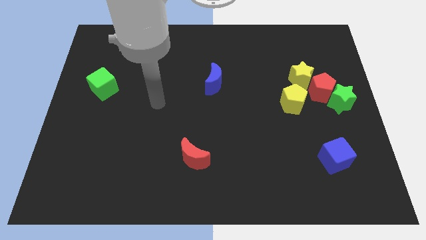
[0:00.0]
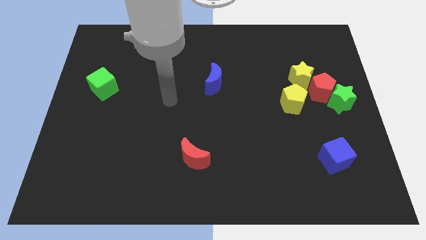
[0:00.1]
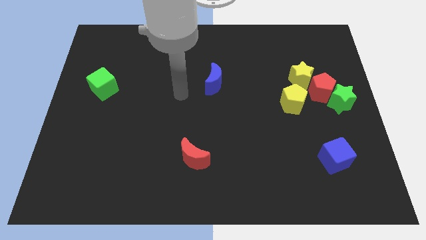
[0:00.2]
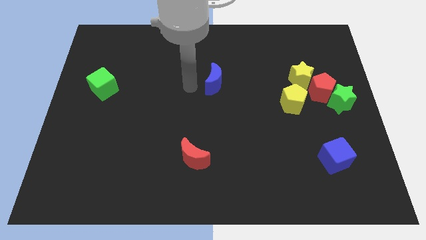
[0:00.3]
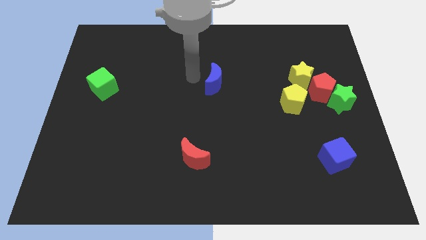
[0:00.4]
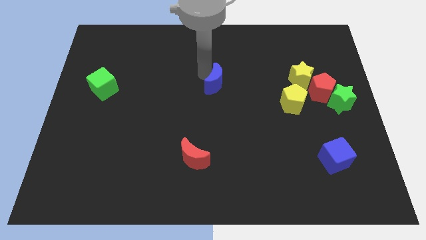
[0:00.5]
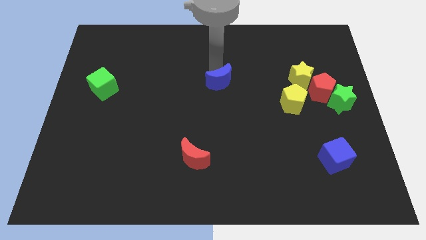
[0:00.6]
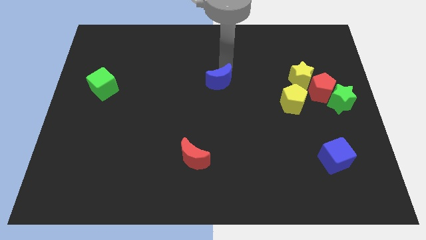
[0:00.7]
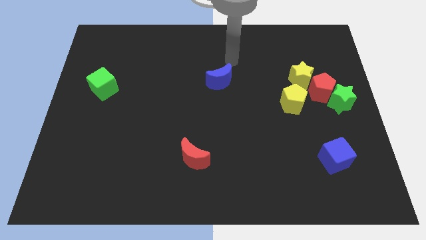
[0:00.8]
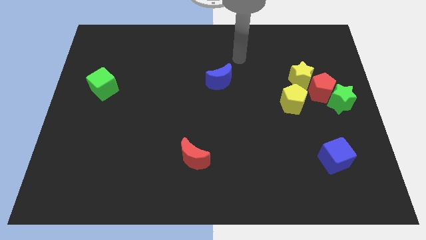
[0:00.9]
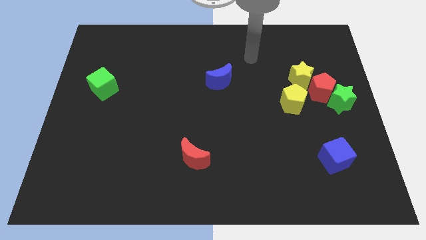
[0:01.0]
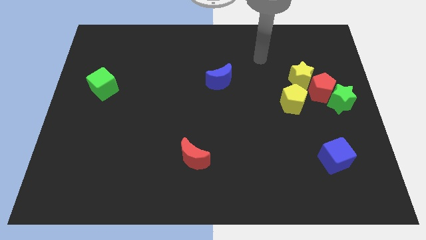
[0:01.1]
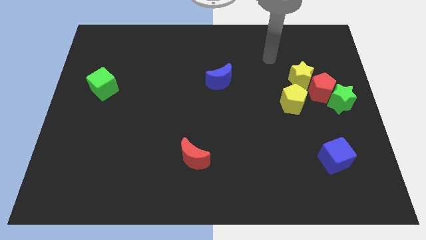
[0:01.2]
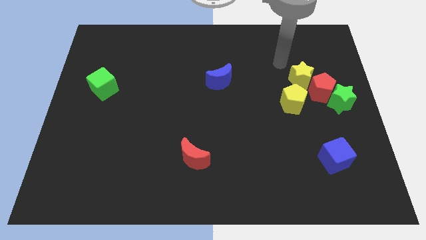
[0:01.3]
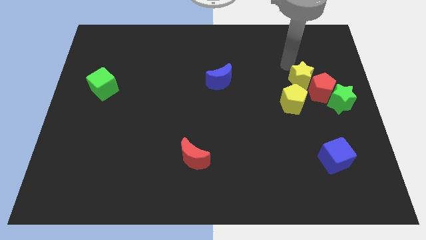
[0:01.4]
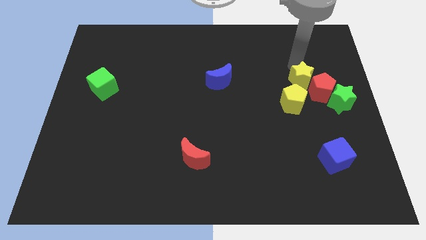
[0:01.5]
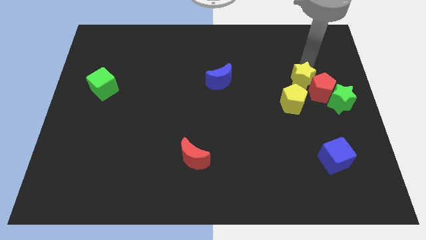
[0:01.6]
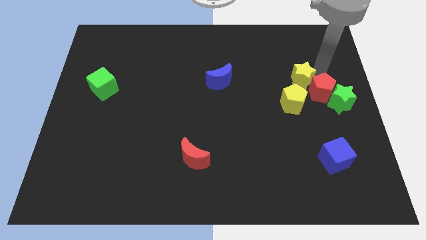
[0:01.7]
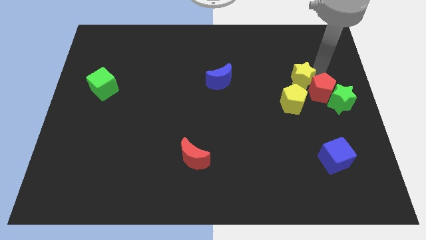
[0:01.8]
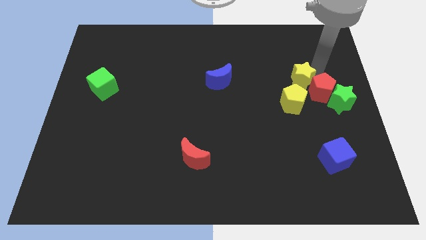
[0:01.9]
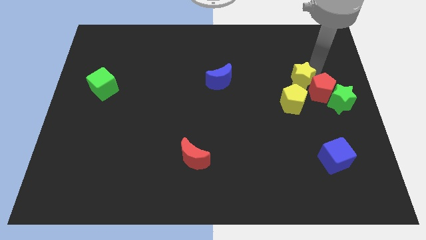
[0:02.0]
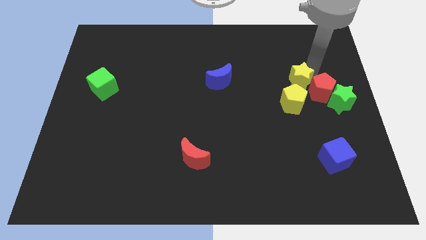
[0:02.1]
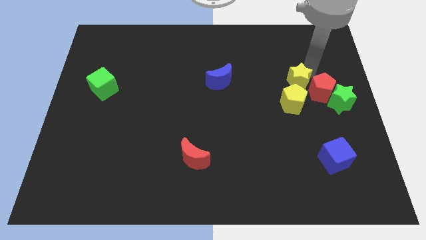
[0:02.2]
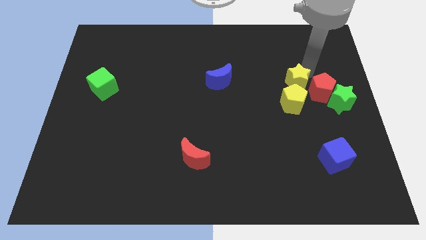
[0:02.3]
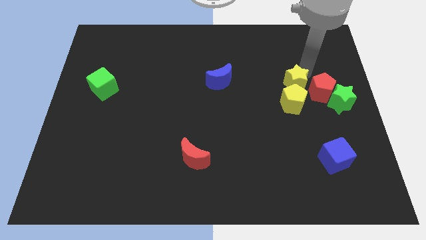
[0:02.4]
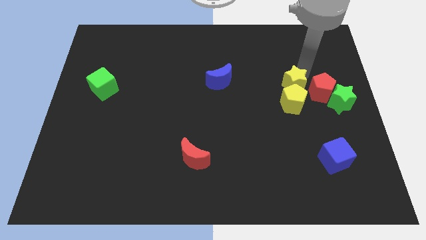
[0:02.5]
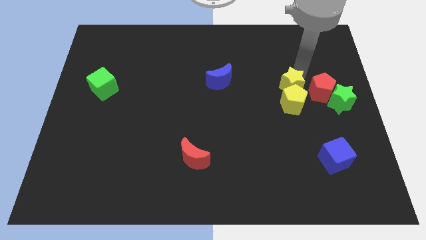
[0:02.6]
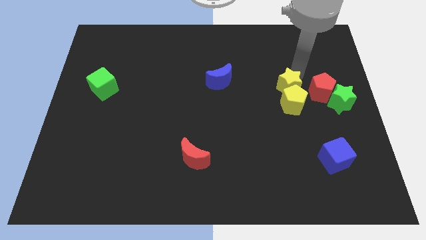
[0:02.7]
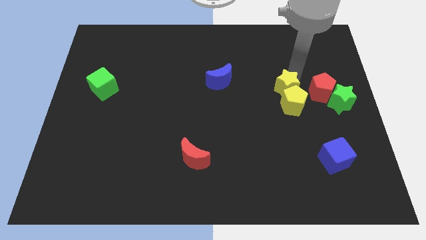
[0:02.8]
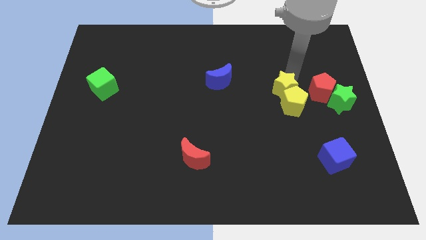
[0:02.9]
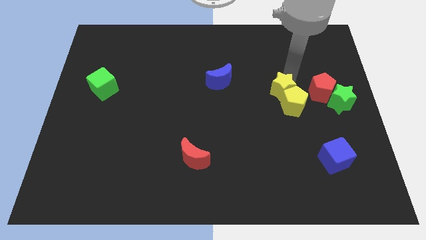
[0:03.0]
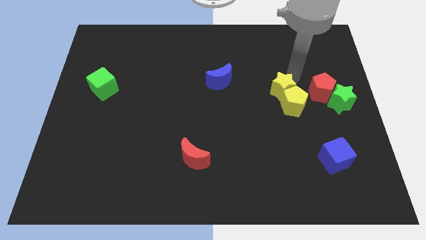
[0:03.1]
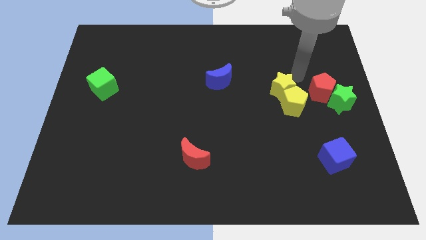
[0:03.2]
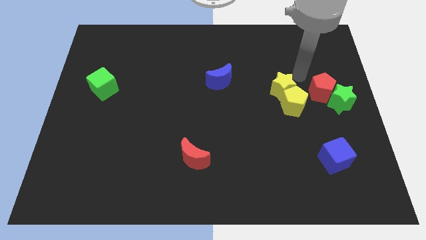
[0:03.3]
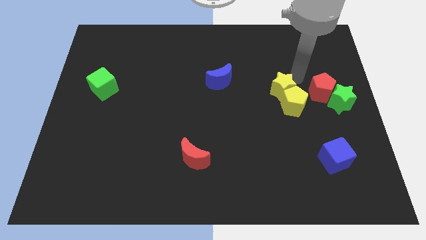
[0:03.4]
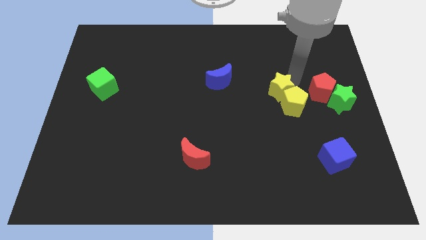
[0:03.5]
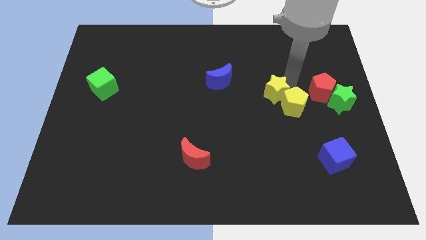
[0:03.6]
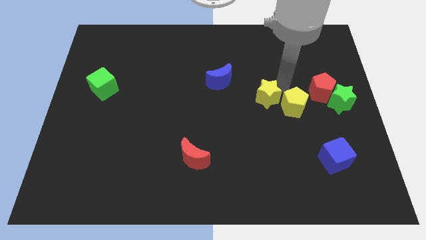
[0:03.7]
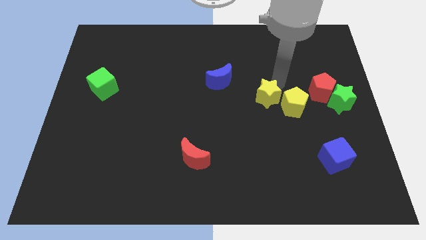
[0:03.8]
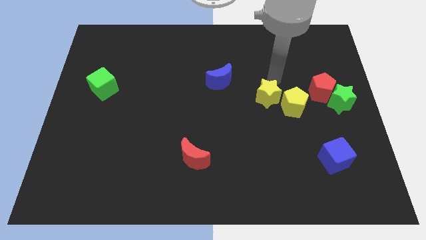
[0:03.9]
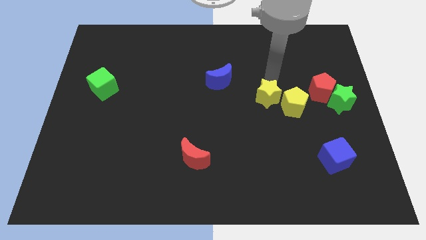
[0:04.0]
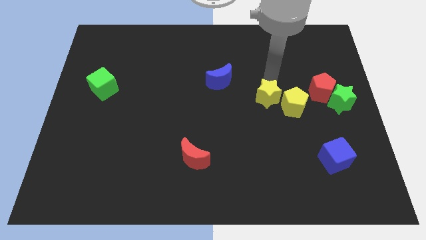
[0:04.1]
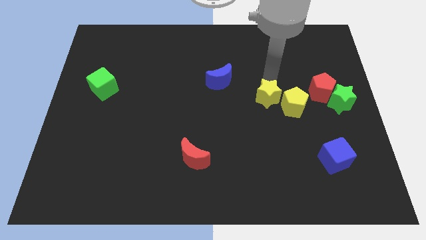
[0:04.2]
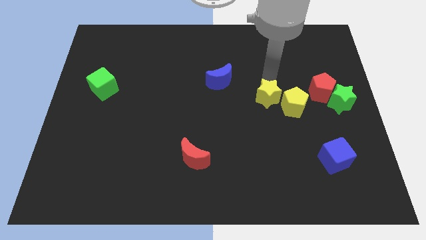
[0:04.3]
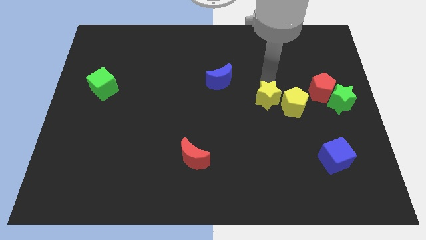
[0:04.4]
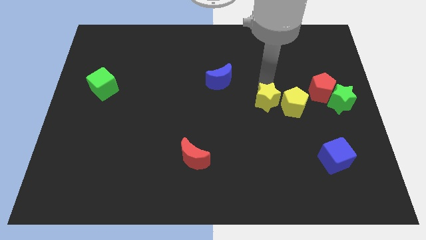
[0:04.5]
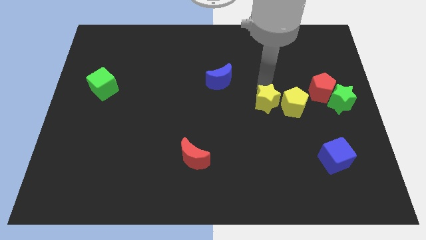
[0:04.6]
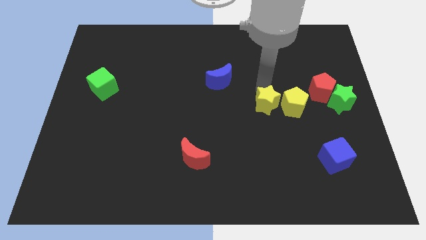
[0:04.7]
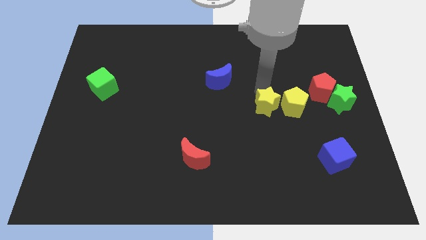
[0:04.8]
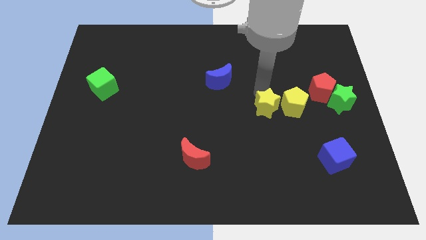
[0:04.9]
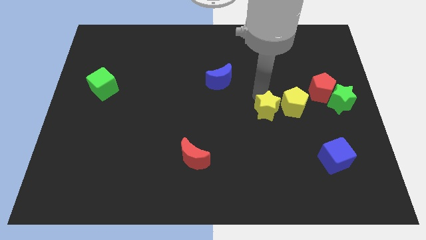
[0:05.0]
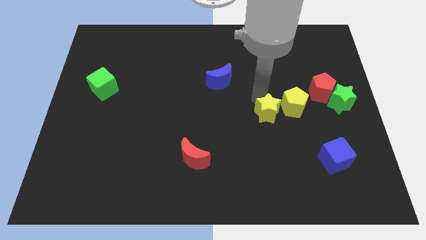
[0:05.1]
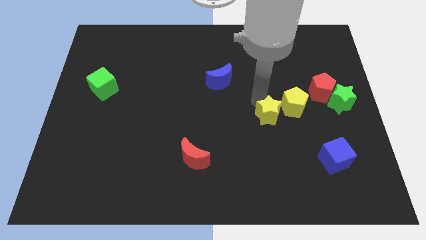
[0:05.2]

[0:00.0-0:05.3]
push the yellow star down slightly

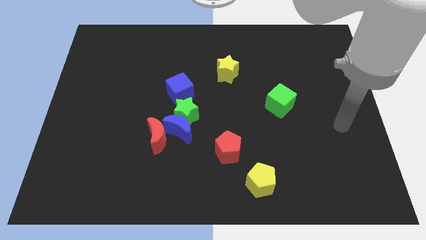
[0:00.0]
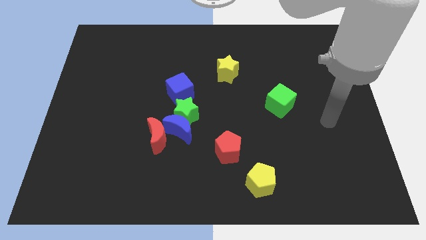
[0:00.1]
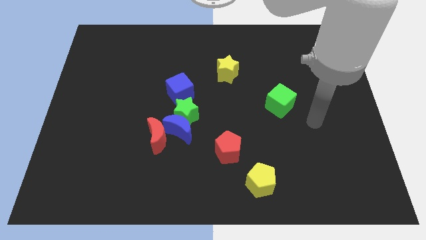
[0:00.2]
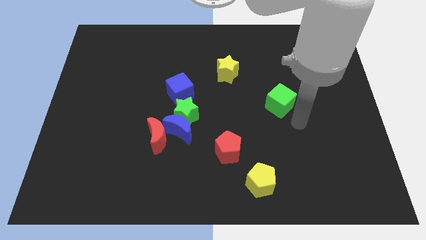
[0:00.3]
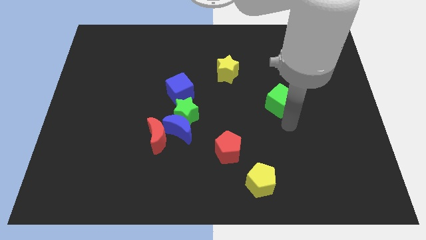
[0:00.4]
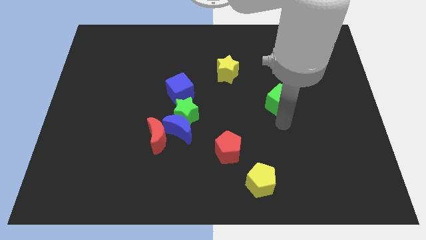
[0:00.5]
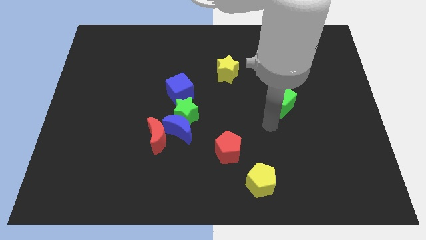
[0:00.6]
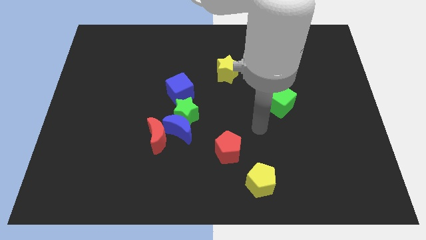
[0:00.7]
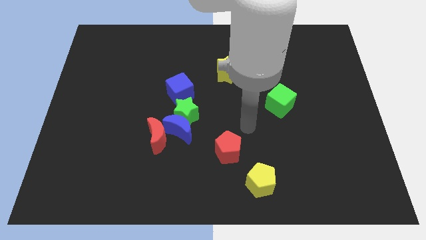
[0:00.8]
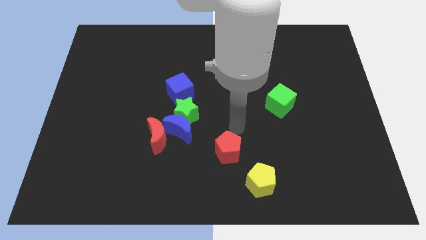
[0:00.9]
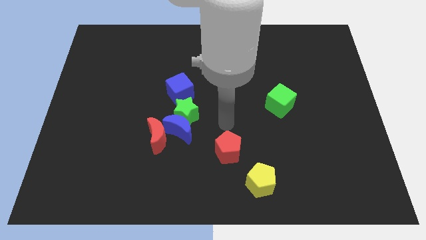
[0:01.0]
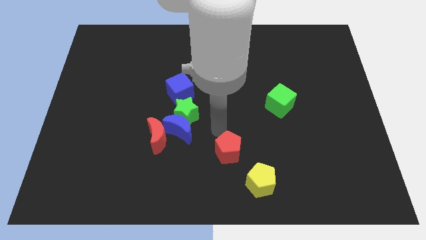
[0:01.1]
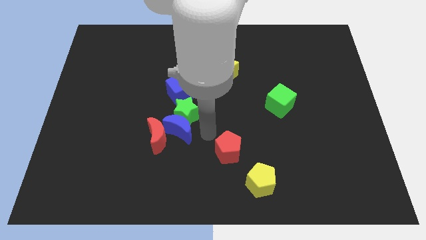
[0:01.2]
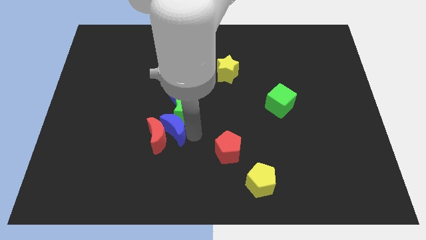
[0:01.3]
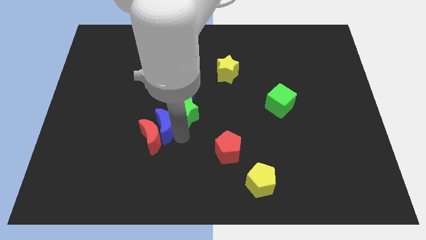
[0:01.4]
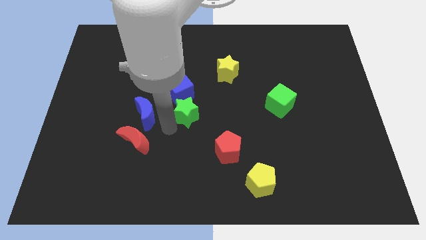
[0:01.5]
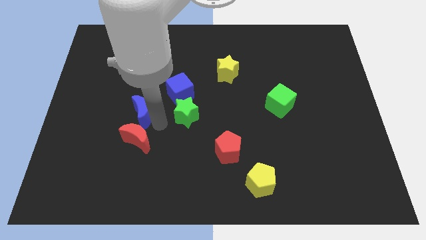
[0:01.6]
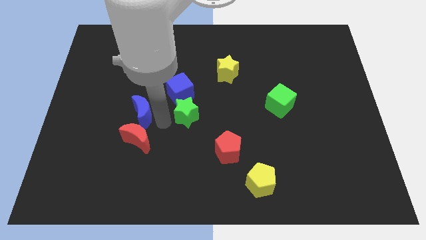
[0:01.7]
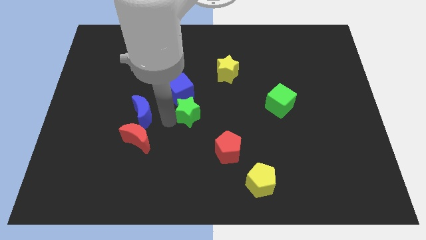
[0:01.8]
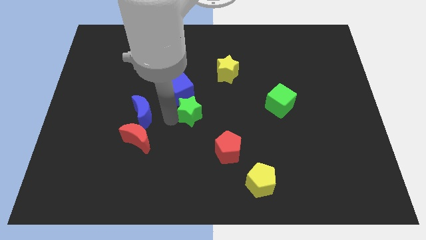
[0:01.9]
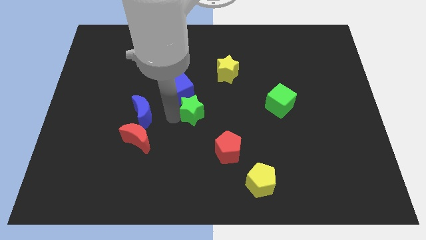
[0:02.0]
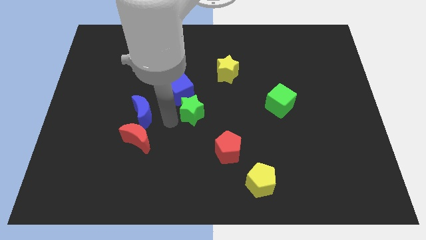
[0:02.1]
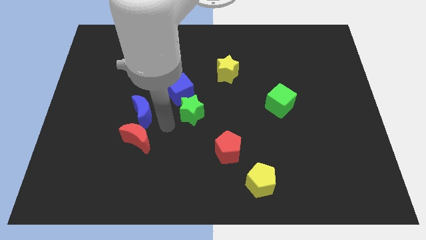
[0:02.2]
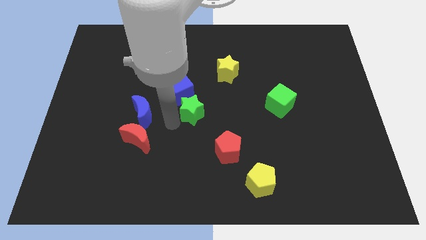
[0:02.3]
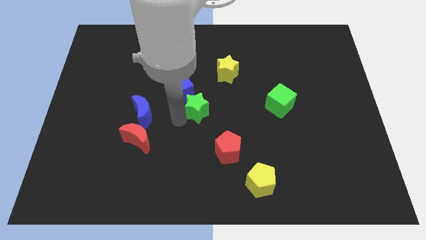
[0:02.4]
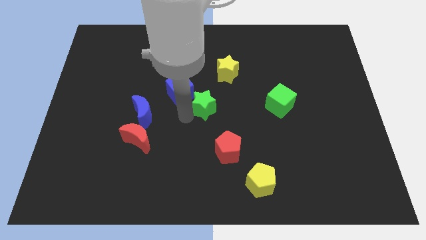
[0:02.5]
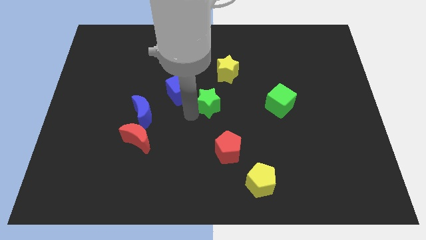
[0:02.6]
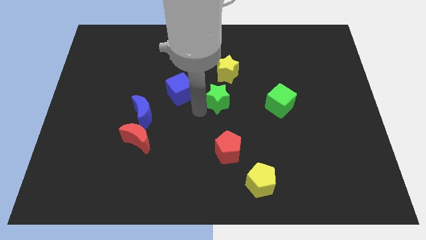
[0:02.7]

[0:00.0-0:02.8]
move the green star upwards and to the right diagonally a little bit
